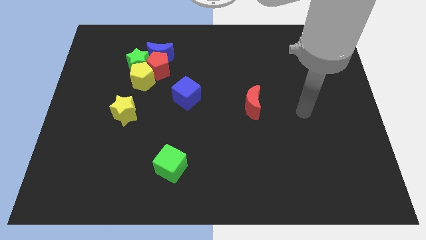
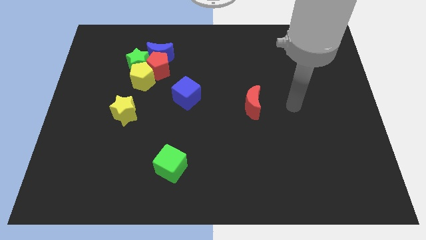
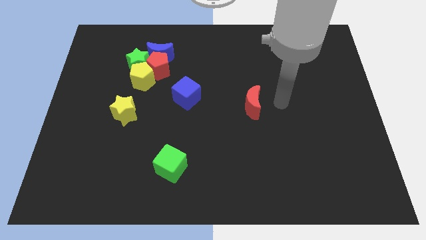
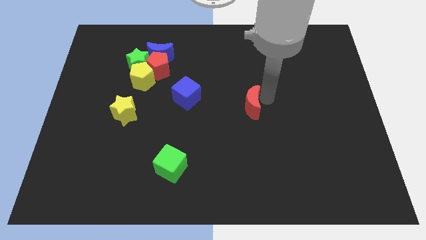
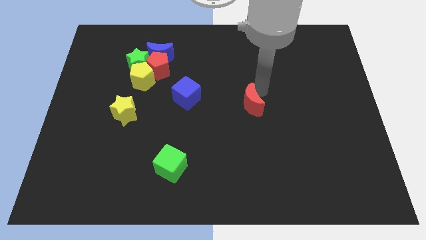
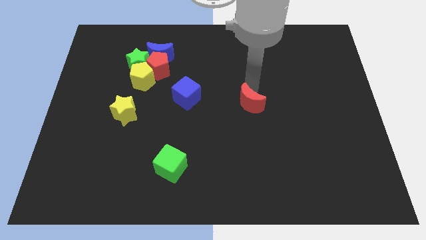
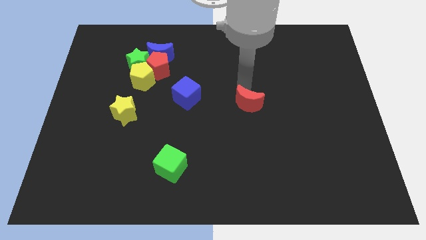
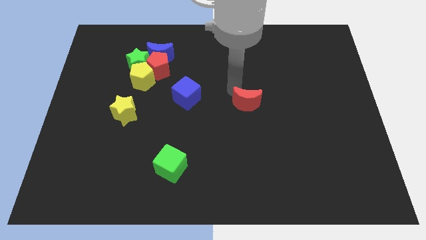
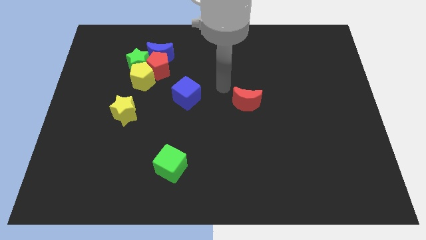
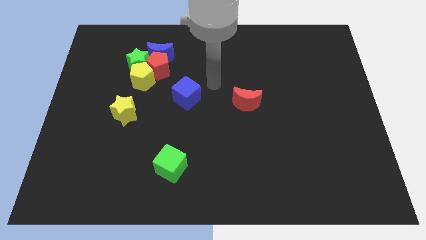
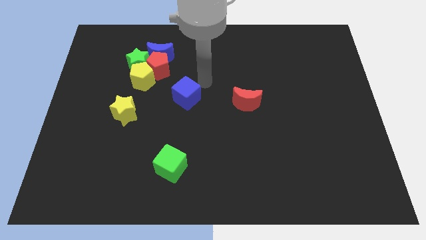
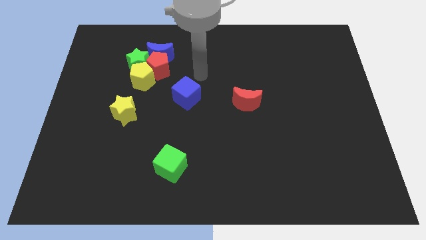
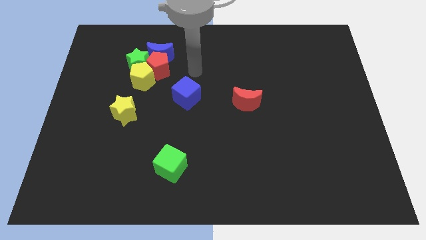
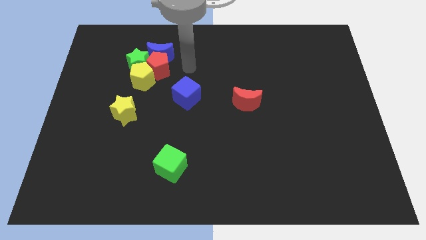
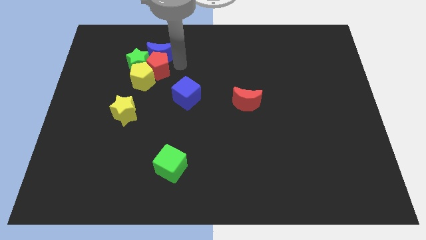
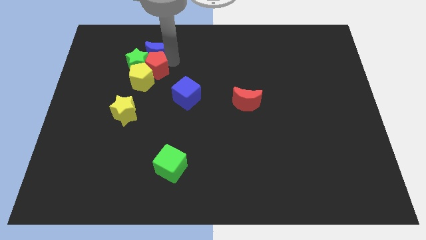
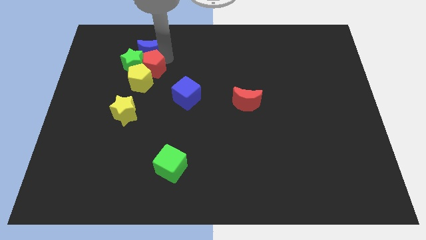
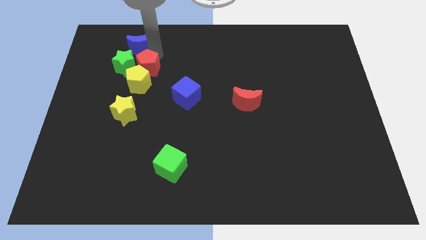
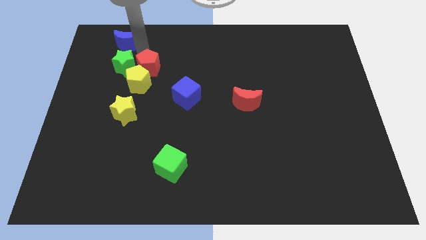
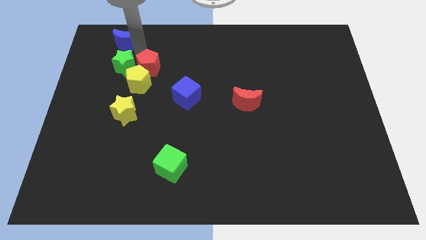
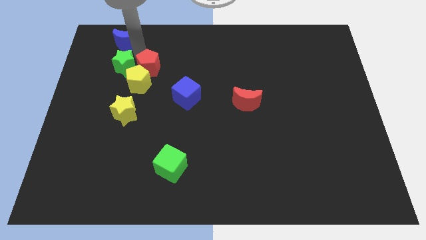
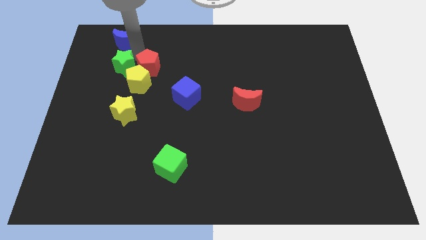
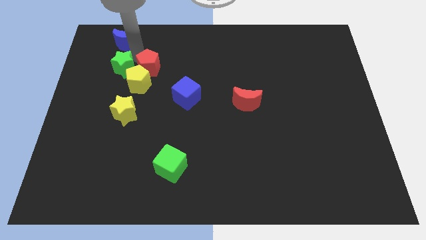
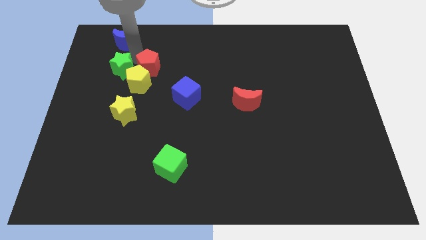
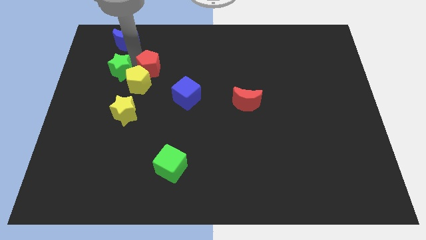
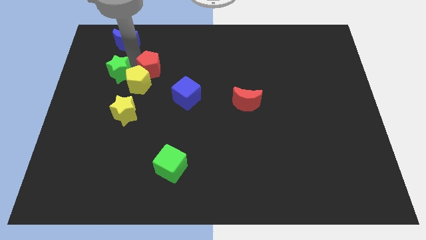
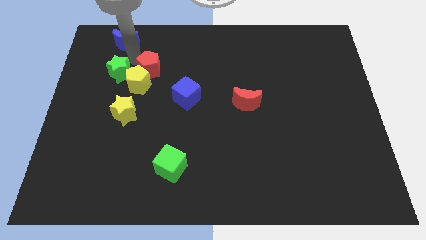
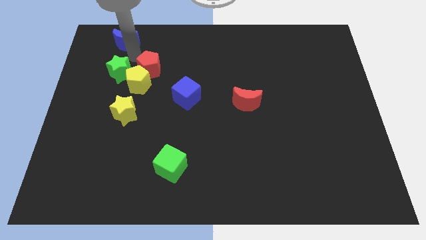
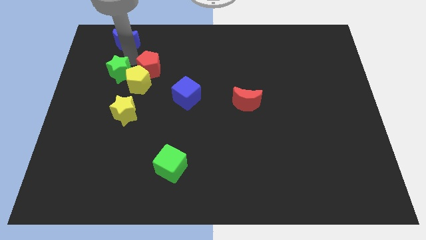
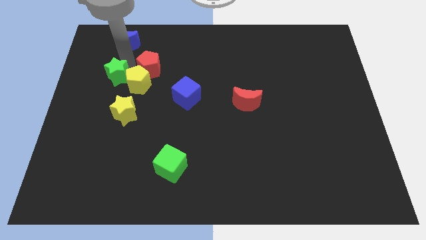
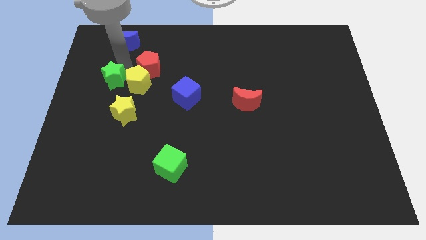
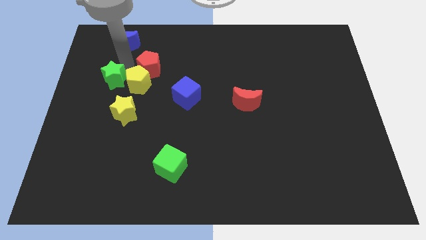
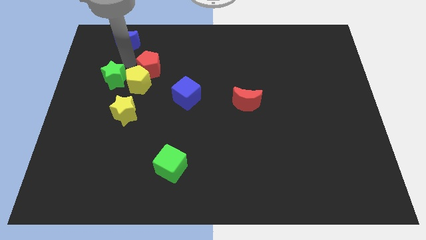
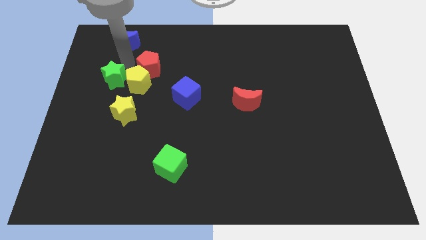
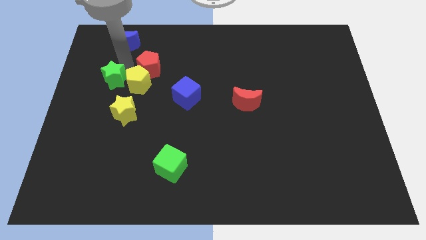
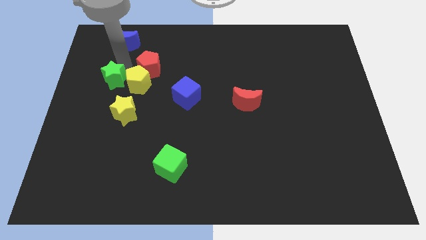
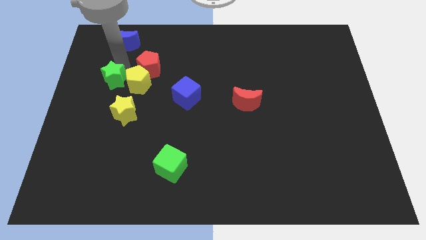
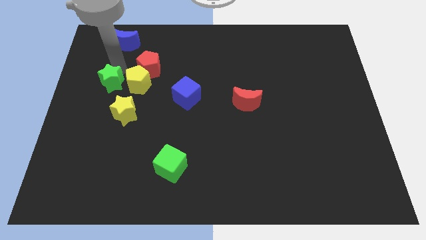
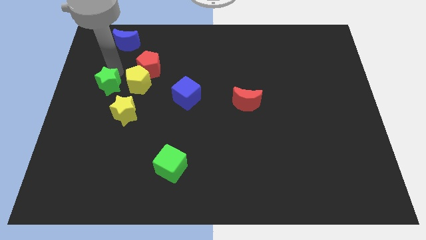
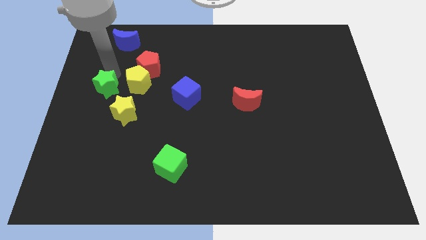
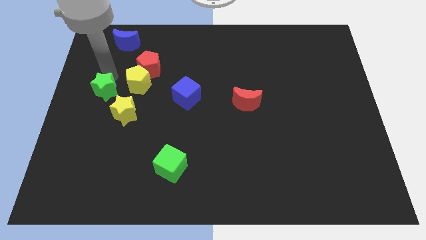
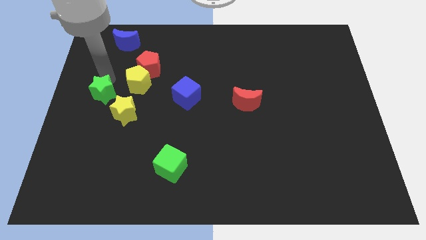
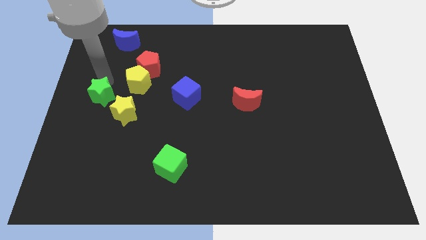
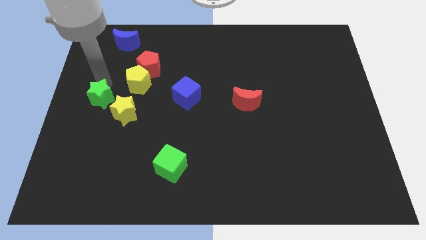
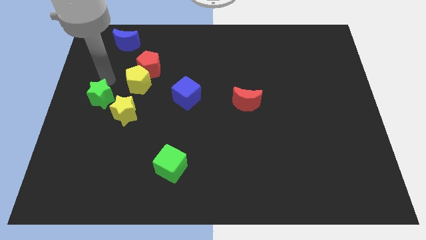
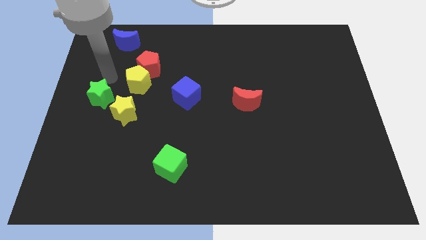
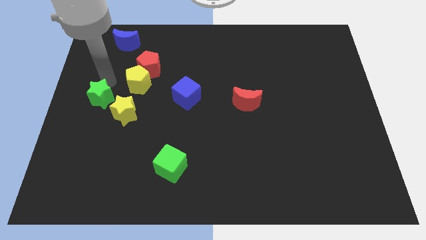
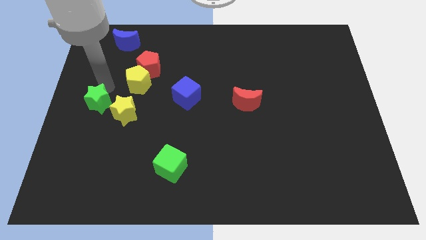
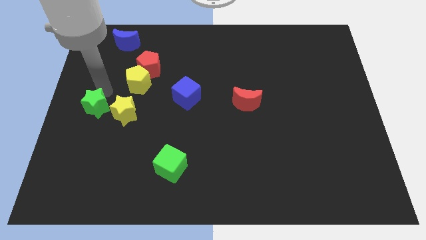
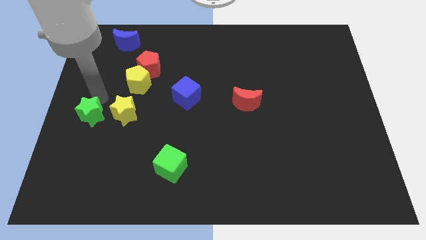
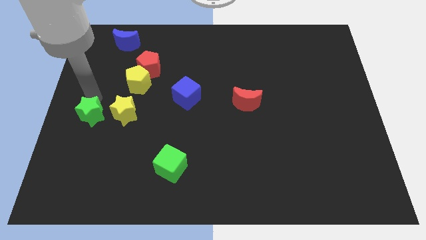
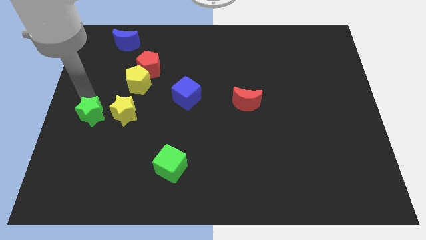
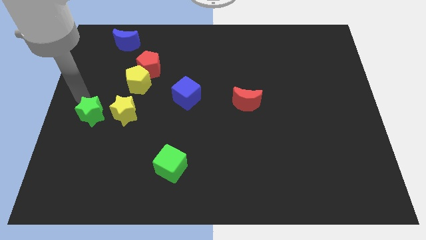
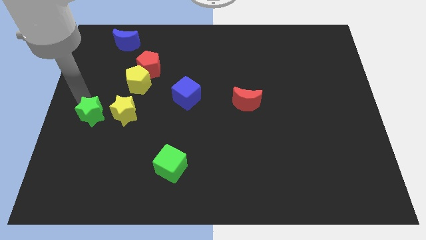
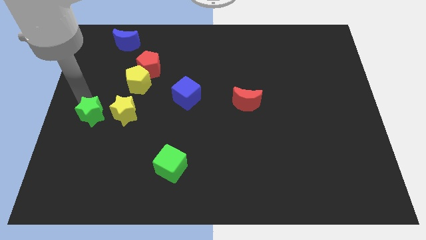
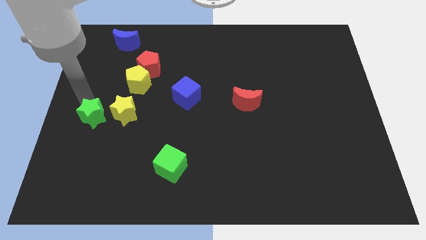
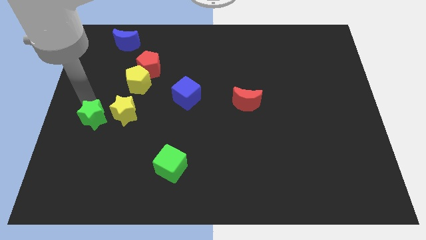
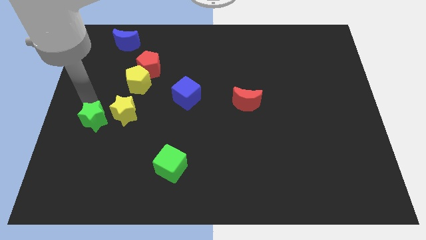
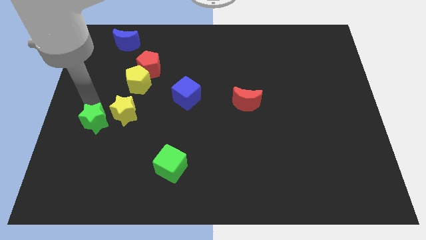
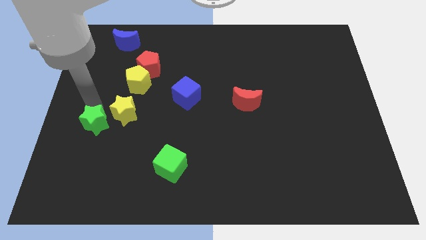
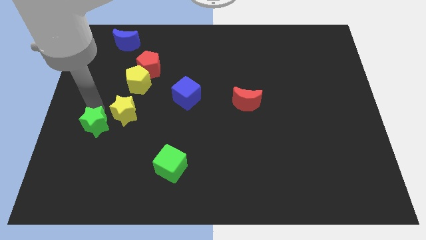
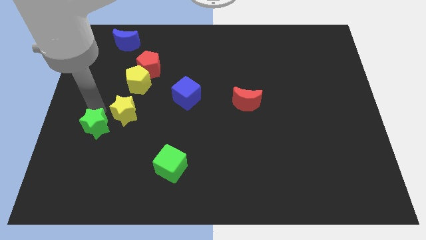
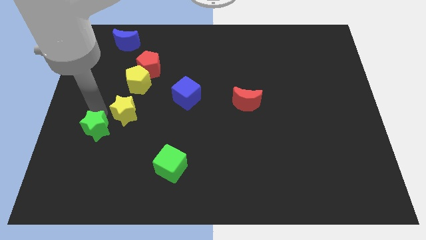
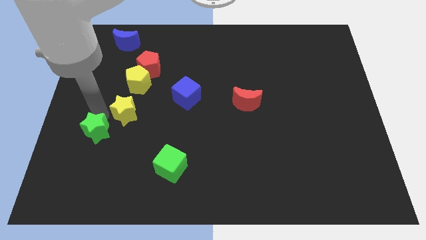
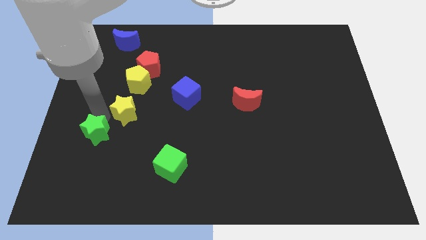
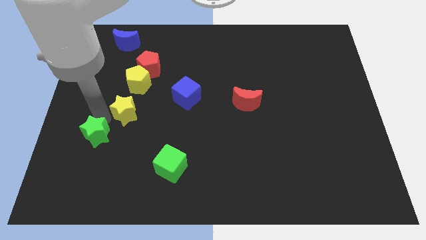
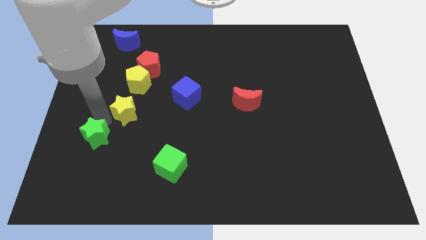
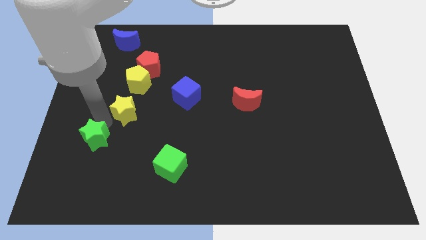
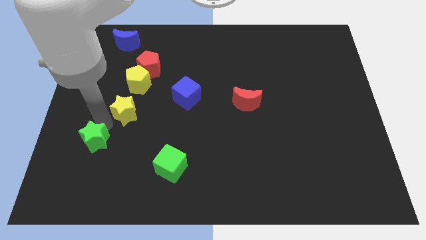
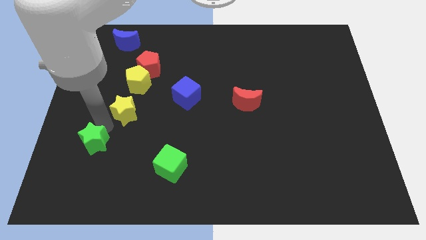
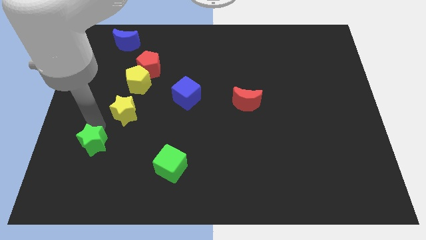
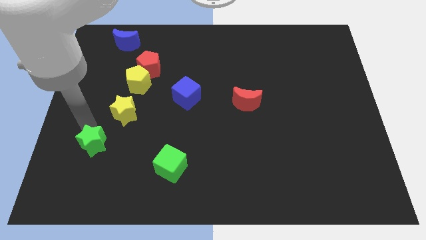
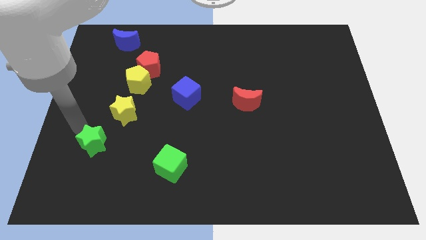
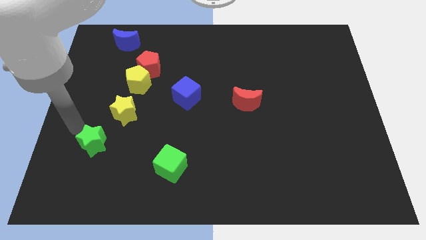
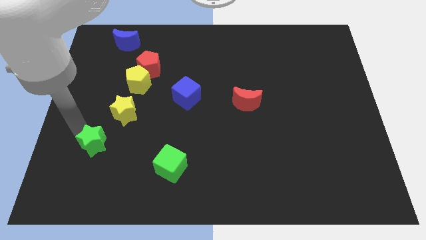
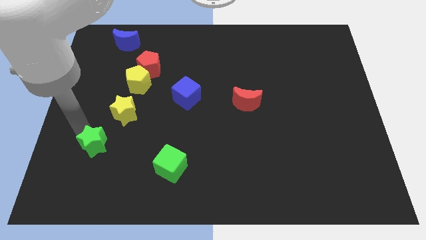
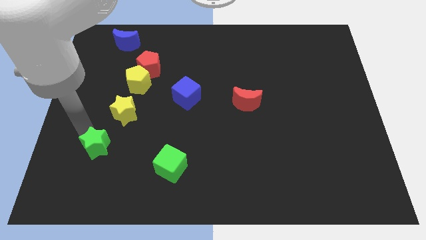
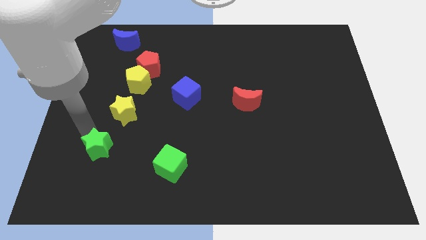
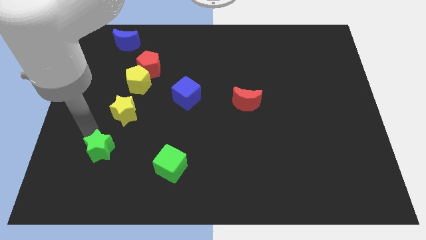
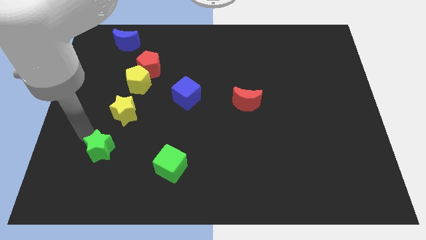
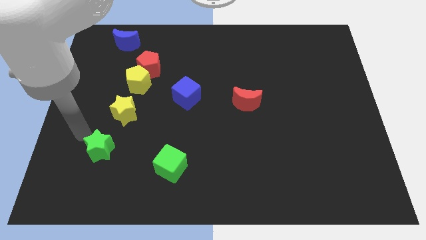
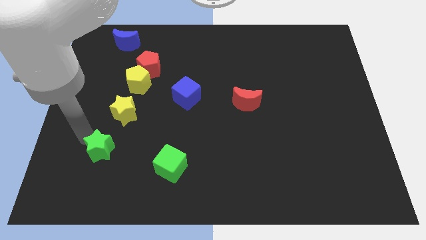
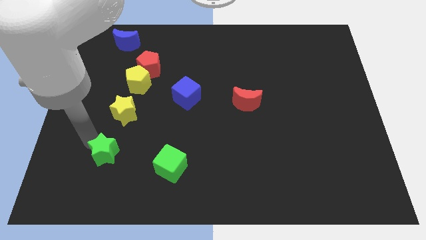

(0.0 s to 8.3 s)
push the green star to the left side of the green cube
